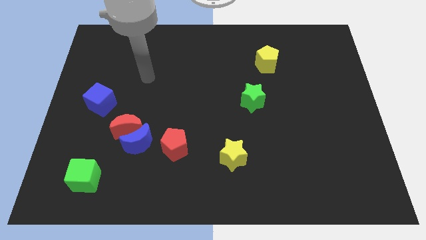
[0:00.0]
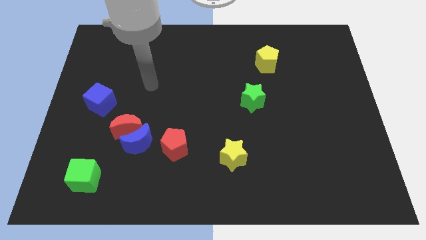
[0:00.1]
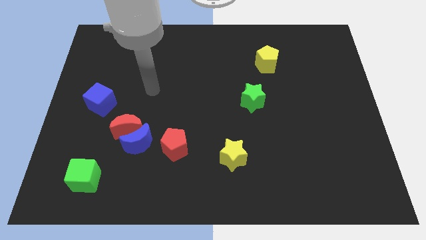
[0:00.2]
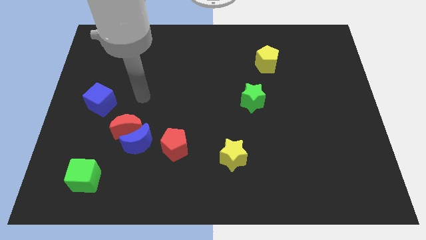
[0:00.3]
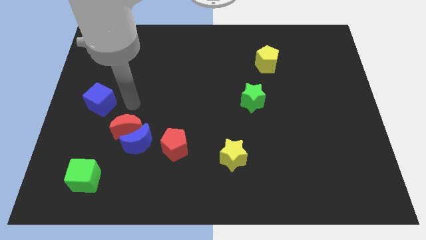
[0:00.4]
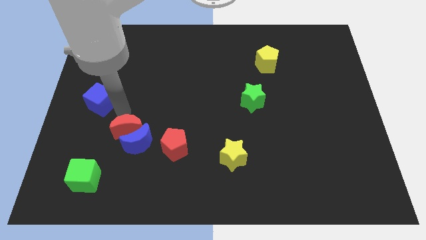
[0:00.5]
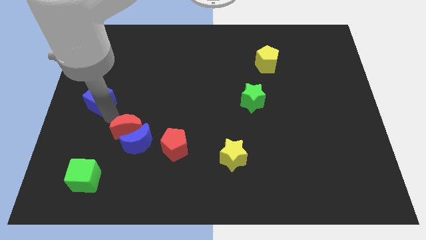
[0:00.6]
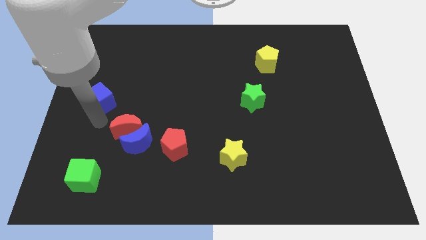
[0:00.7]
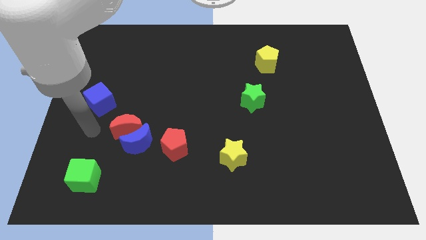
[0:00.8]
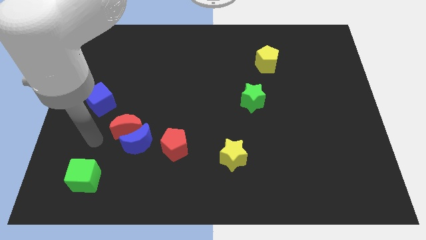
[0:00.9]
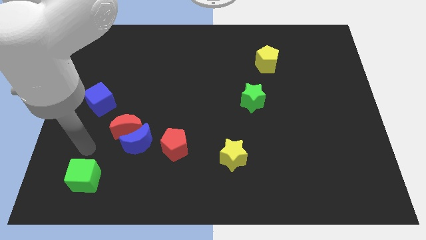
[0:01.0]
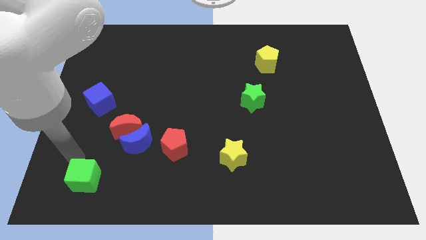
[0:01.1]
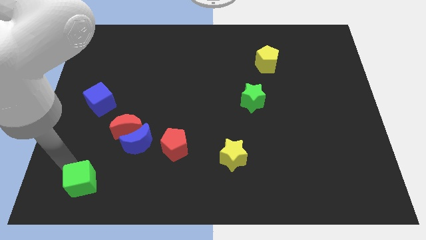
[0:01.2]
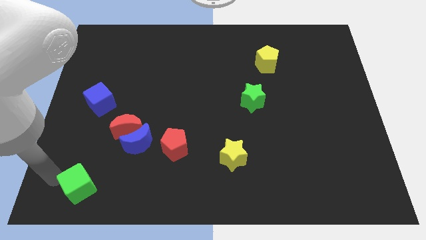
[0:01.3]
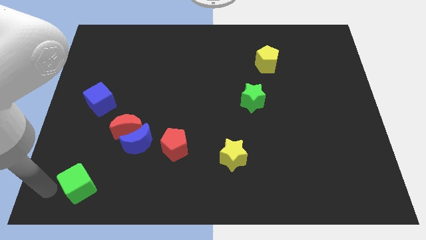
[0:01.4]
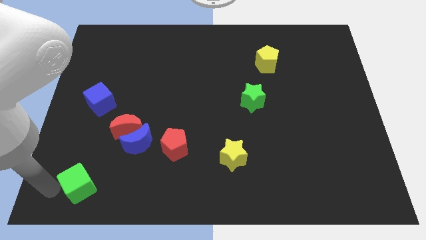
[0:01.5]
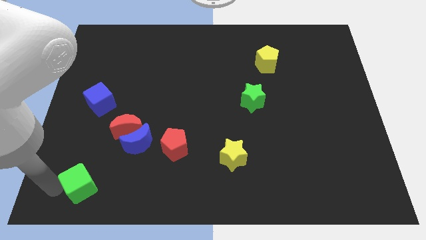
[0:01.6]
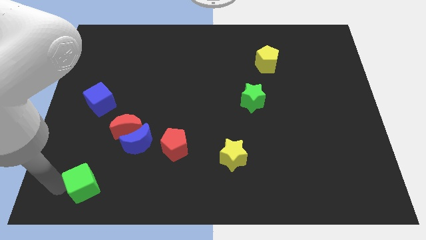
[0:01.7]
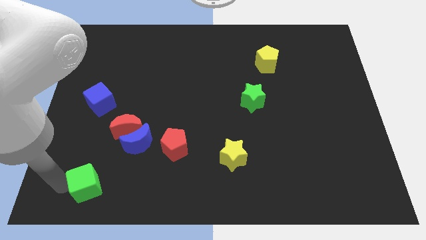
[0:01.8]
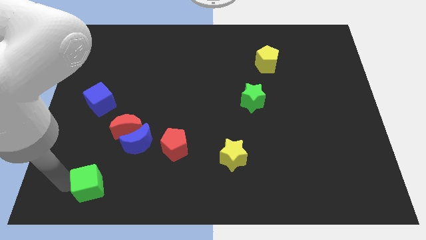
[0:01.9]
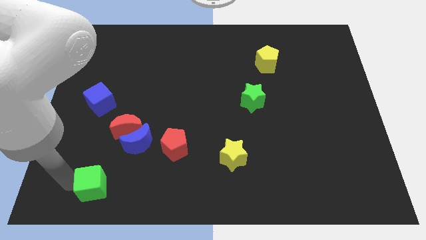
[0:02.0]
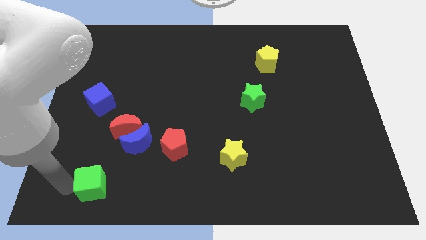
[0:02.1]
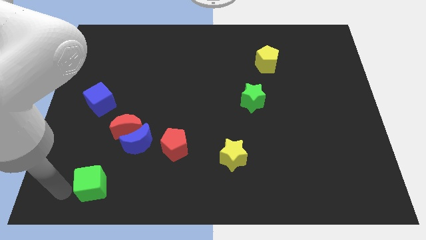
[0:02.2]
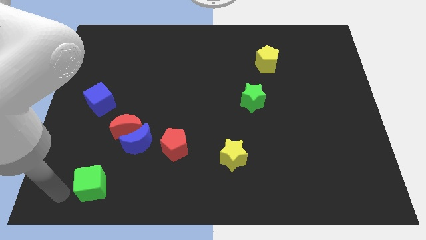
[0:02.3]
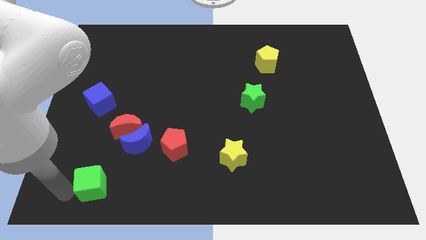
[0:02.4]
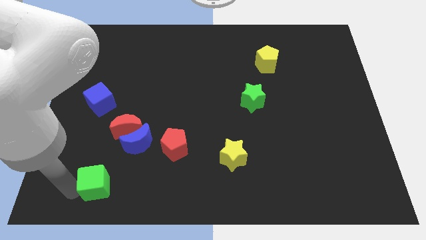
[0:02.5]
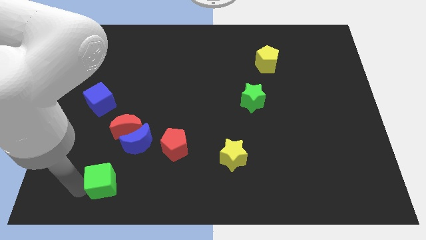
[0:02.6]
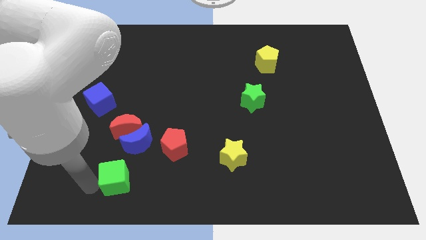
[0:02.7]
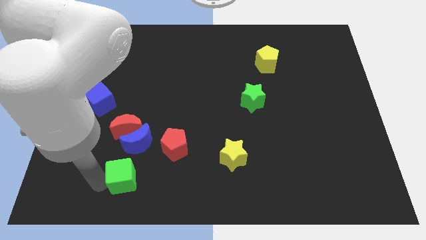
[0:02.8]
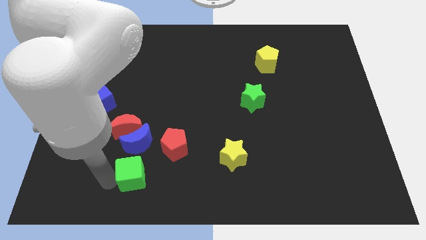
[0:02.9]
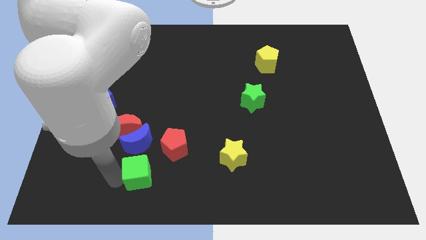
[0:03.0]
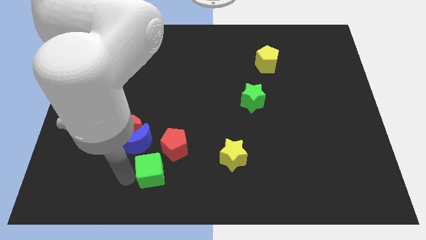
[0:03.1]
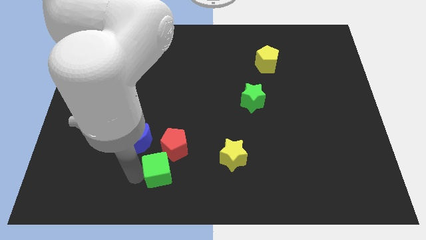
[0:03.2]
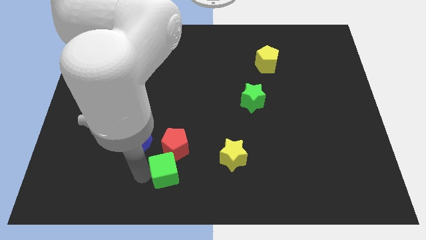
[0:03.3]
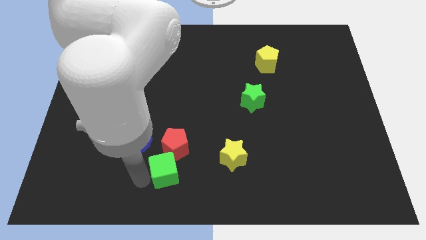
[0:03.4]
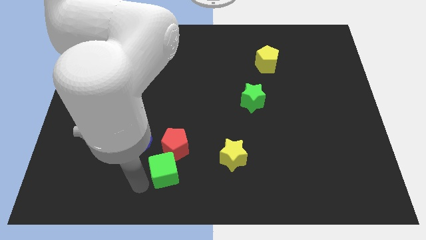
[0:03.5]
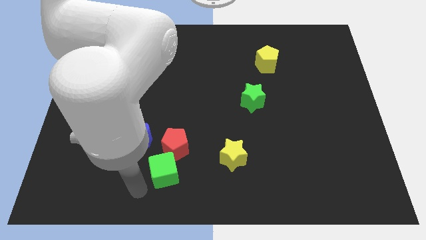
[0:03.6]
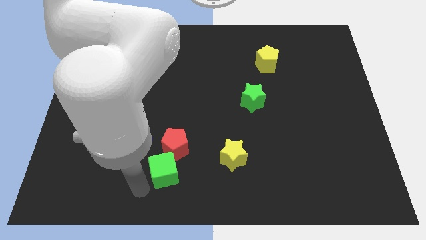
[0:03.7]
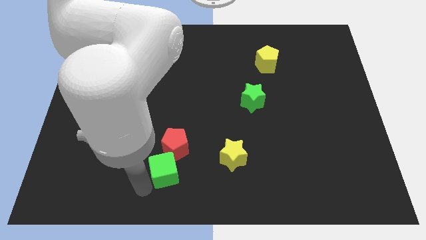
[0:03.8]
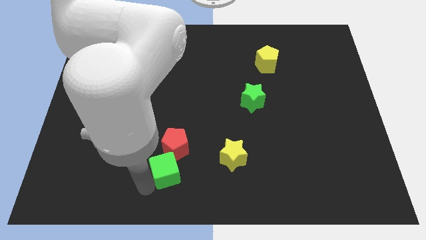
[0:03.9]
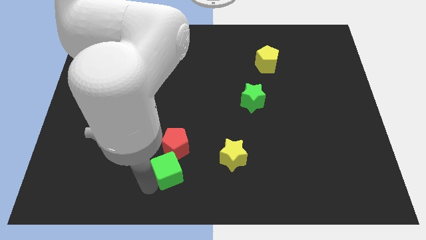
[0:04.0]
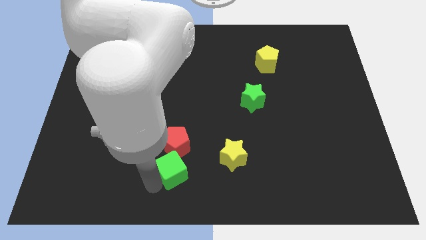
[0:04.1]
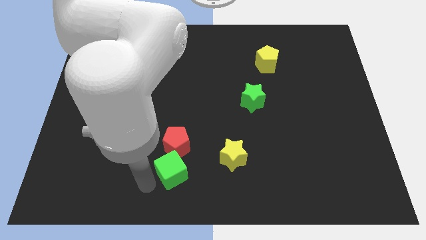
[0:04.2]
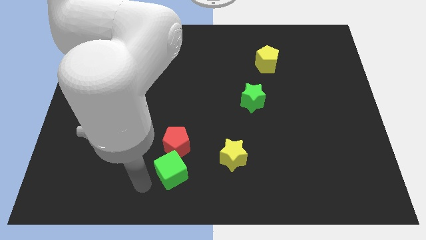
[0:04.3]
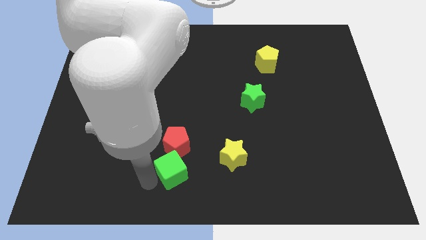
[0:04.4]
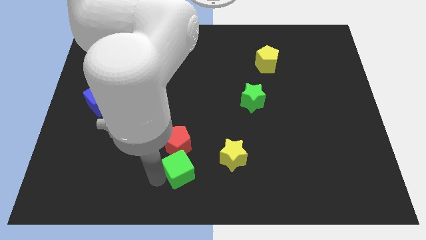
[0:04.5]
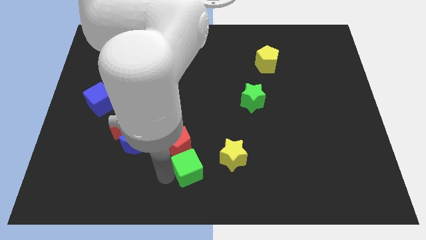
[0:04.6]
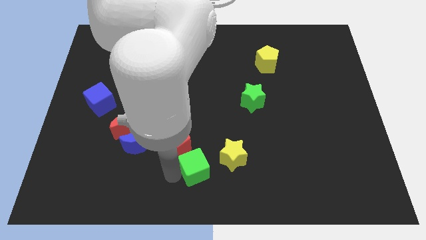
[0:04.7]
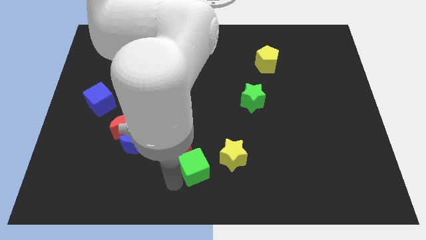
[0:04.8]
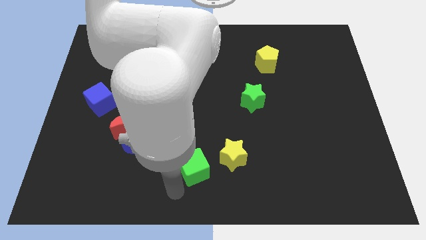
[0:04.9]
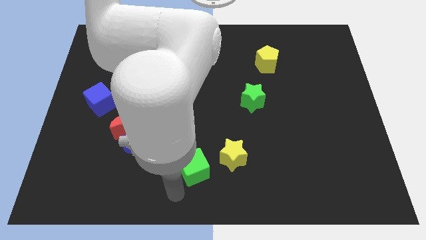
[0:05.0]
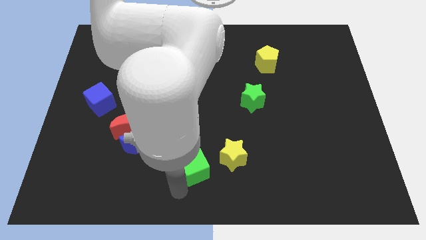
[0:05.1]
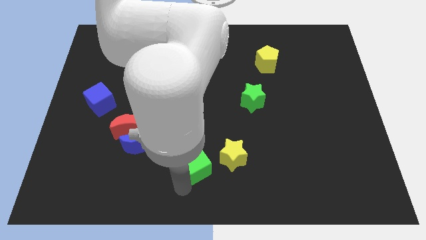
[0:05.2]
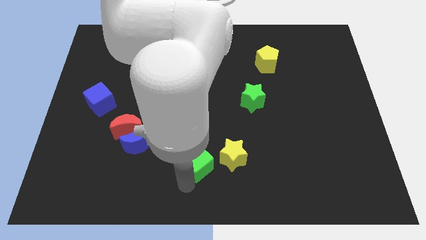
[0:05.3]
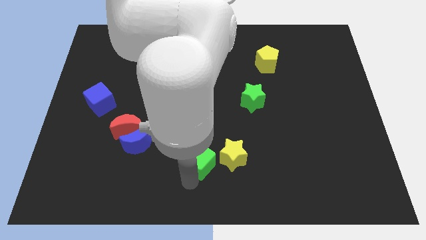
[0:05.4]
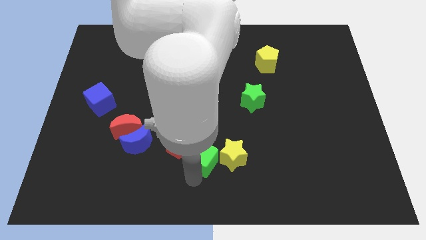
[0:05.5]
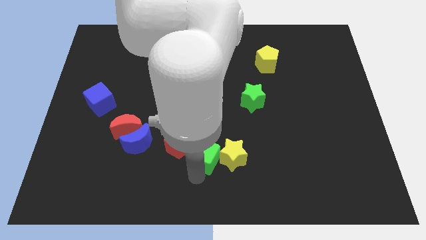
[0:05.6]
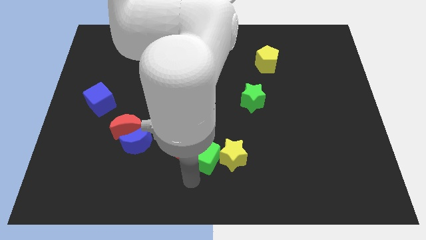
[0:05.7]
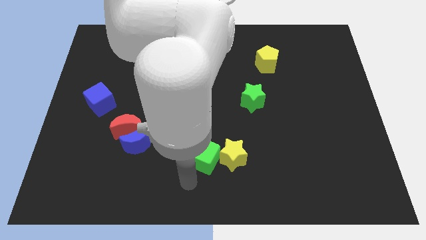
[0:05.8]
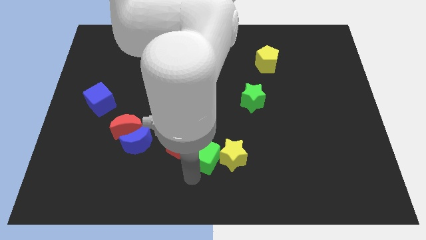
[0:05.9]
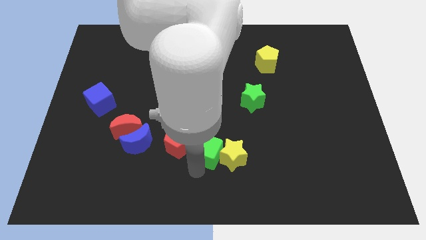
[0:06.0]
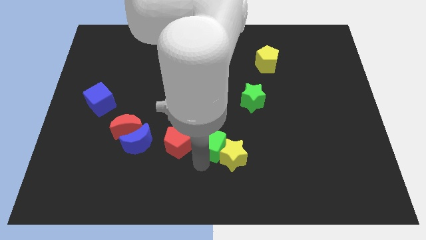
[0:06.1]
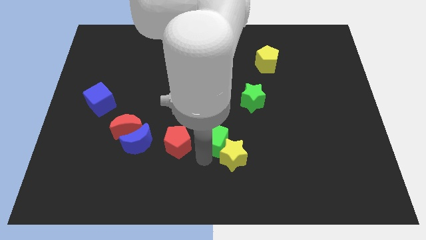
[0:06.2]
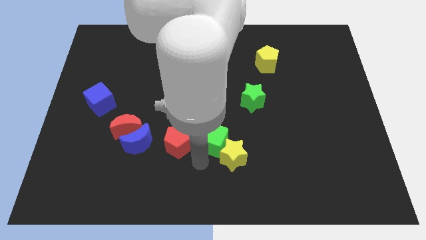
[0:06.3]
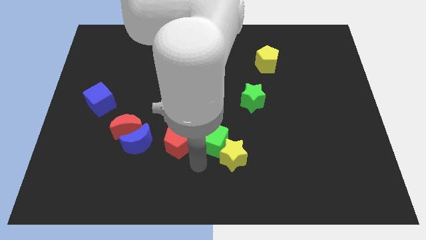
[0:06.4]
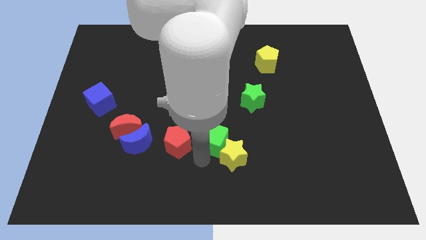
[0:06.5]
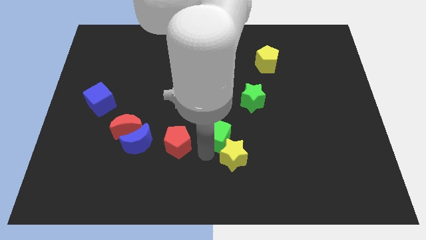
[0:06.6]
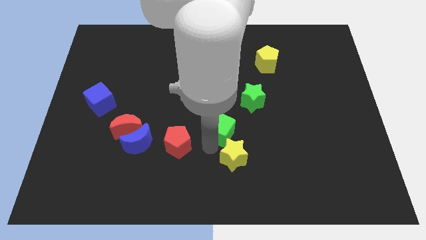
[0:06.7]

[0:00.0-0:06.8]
slide the green cube to the bottom left side of the green star
